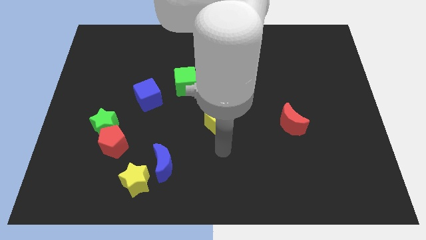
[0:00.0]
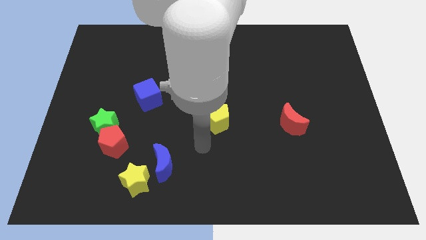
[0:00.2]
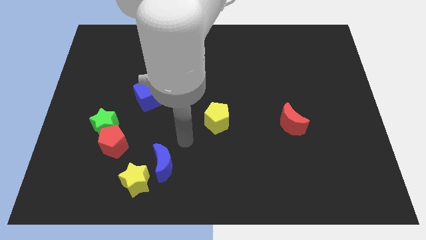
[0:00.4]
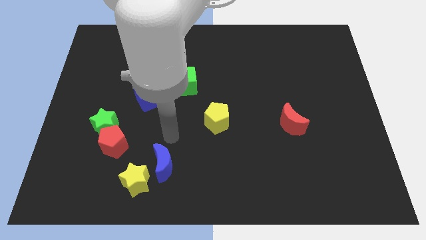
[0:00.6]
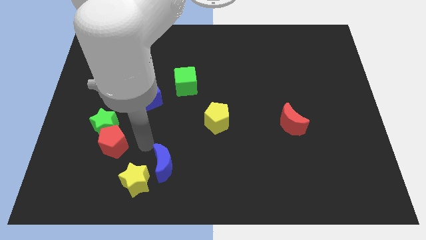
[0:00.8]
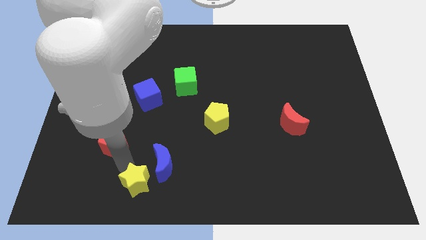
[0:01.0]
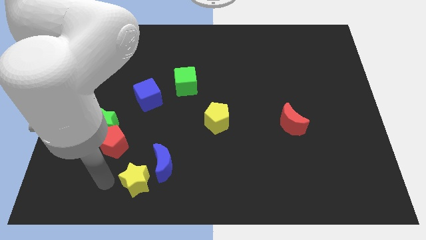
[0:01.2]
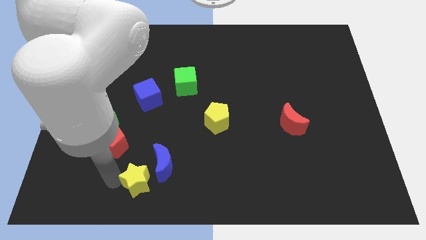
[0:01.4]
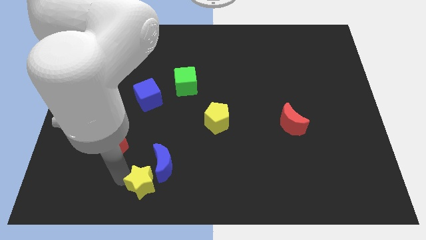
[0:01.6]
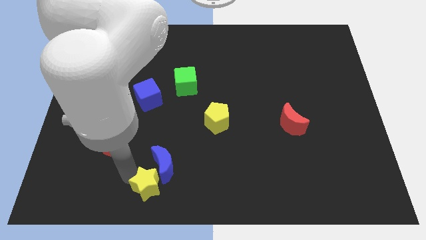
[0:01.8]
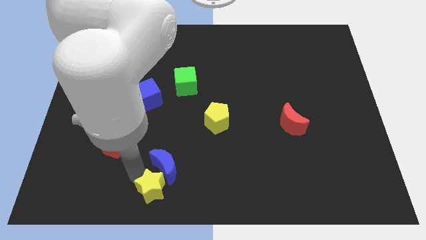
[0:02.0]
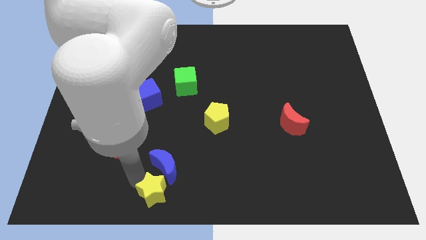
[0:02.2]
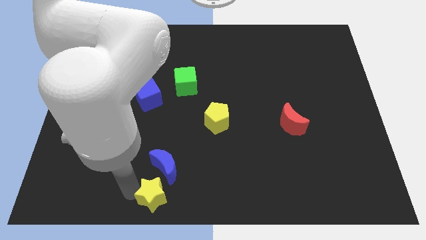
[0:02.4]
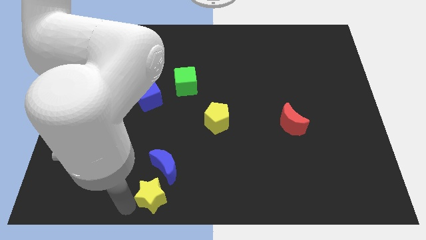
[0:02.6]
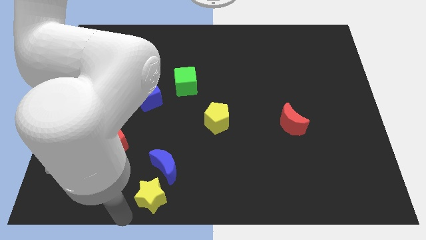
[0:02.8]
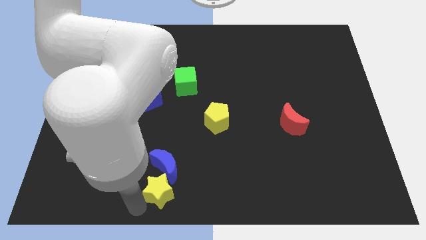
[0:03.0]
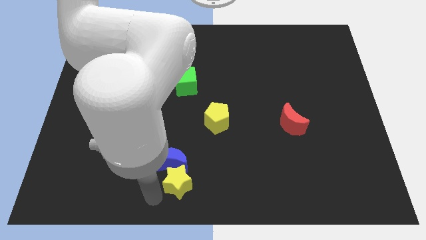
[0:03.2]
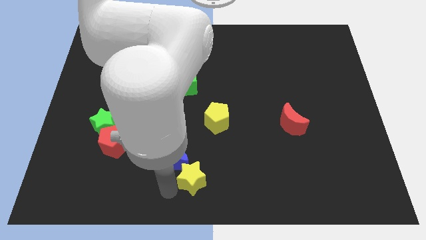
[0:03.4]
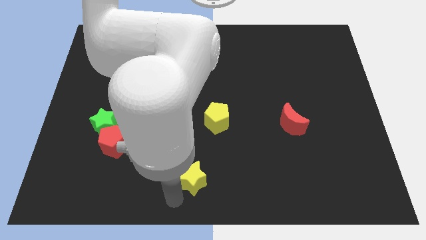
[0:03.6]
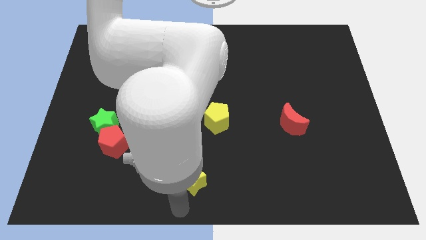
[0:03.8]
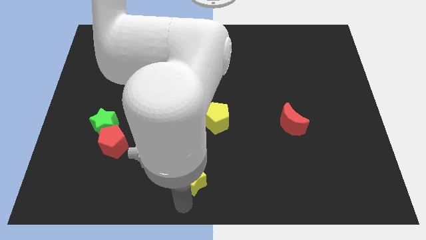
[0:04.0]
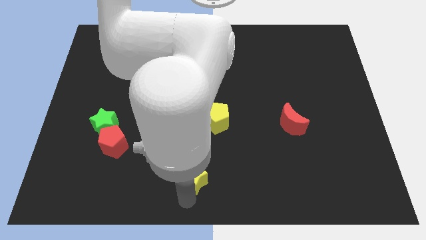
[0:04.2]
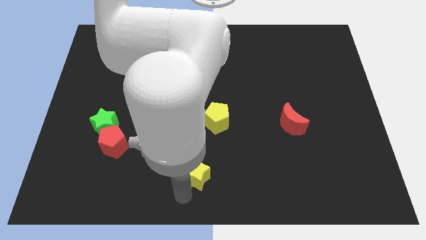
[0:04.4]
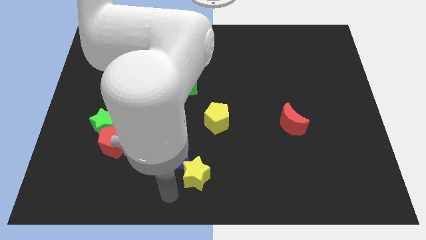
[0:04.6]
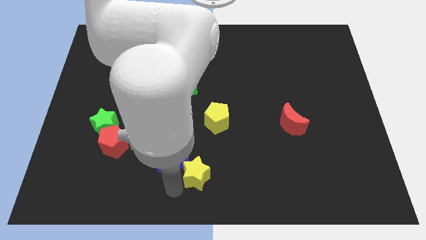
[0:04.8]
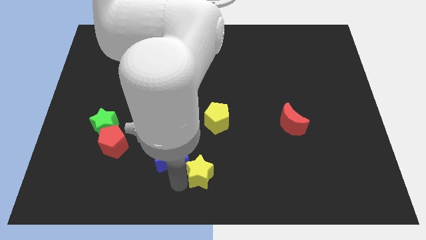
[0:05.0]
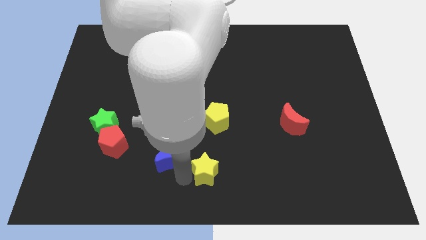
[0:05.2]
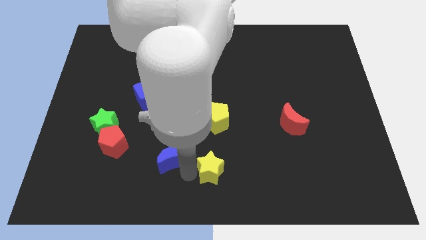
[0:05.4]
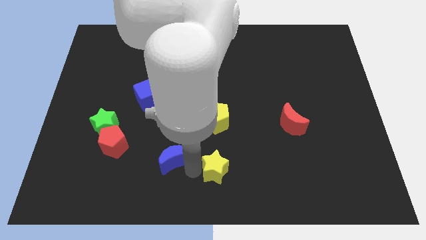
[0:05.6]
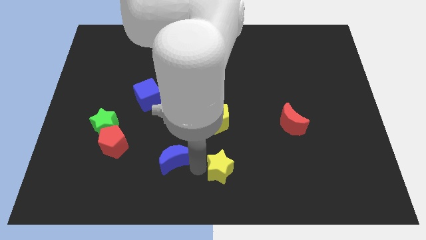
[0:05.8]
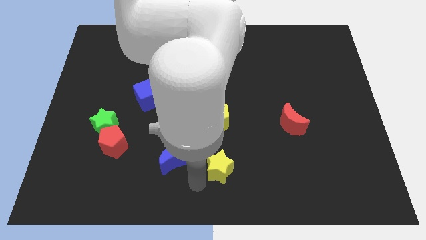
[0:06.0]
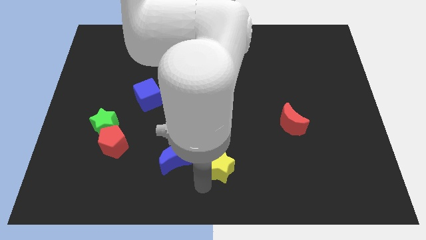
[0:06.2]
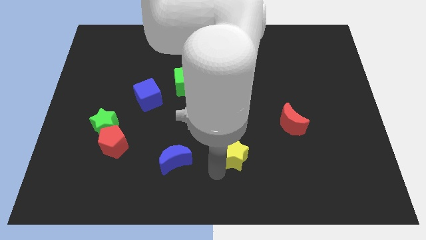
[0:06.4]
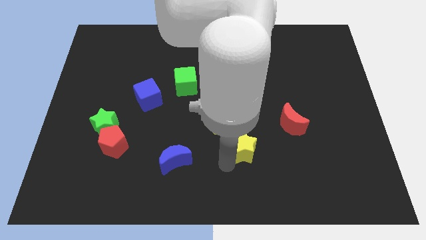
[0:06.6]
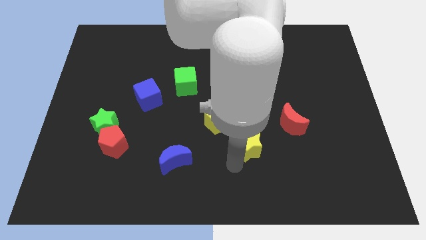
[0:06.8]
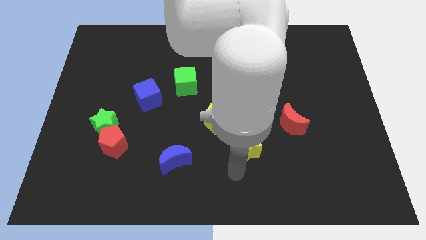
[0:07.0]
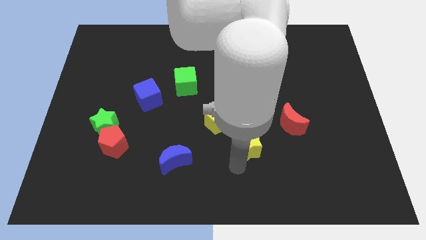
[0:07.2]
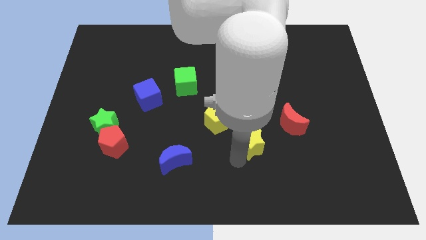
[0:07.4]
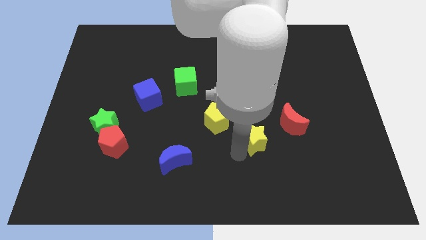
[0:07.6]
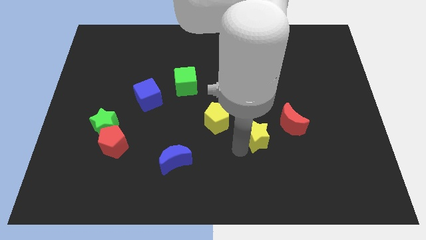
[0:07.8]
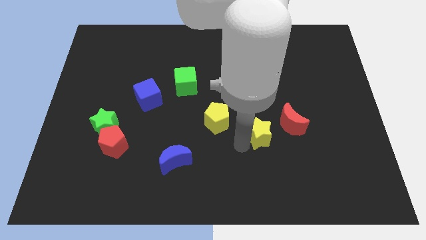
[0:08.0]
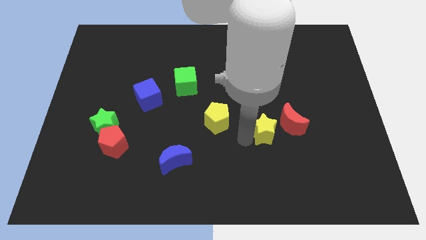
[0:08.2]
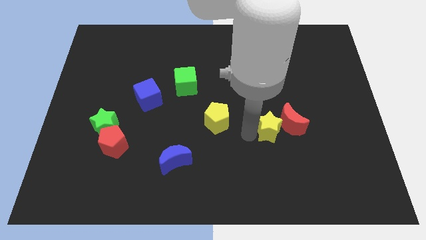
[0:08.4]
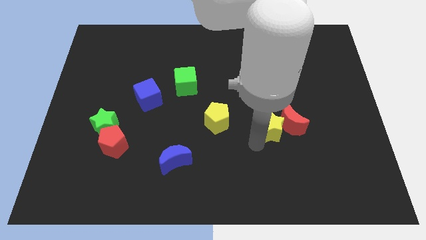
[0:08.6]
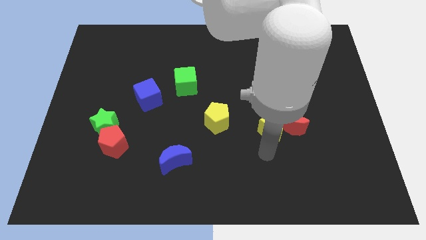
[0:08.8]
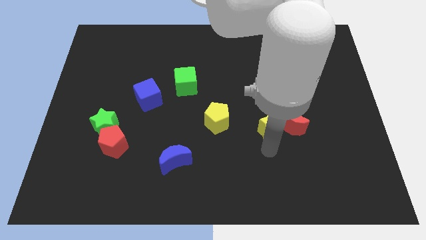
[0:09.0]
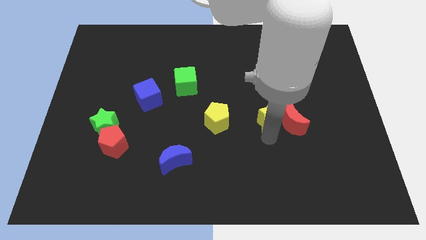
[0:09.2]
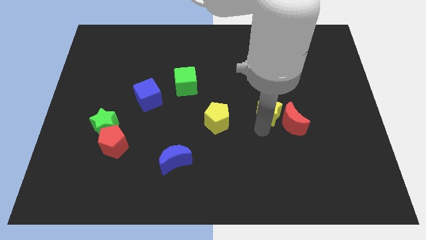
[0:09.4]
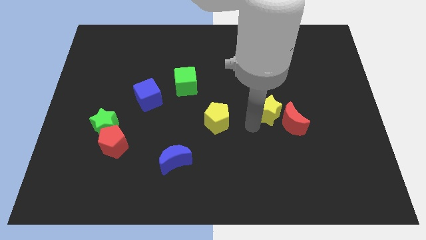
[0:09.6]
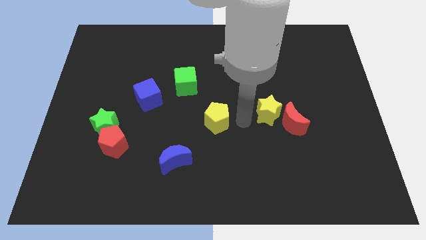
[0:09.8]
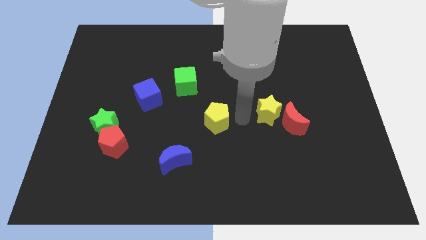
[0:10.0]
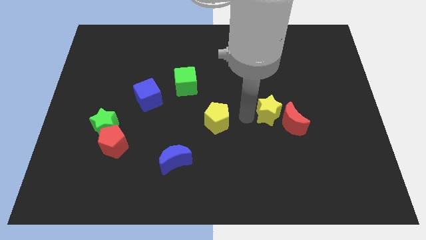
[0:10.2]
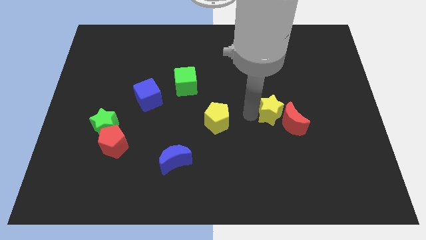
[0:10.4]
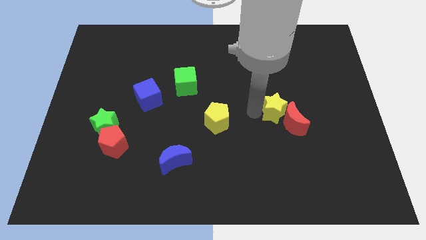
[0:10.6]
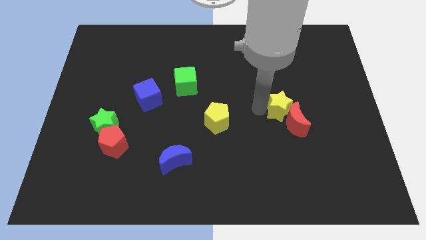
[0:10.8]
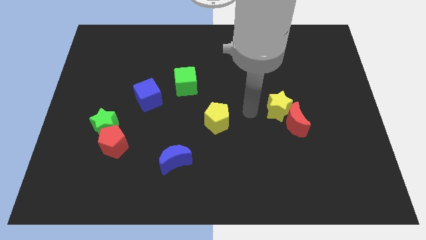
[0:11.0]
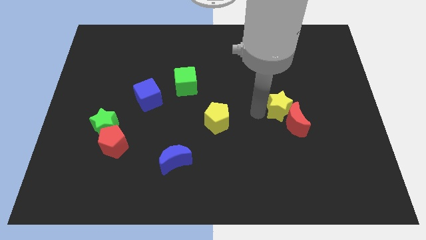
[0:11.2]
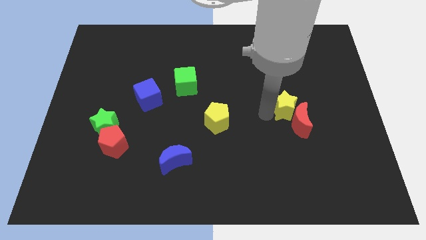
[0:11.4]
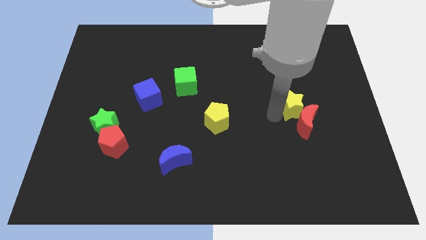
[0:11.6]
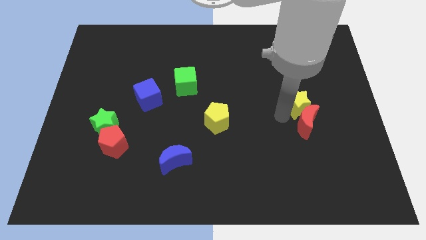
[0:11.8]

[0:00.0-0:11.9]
put the yellow star to the top right side of the red moon

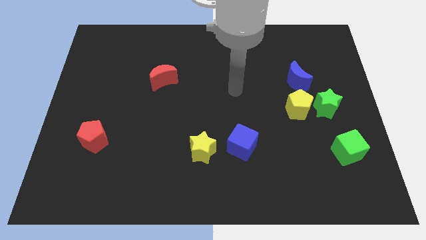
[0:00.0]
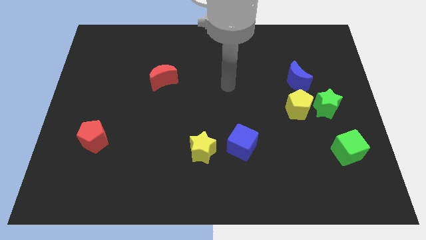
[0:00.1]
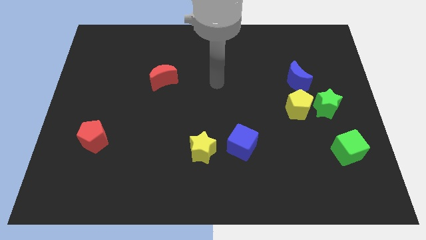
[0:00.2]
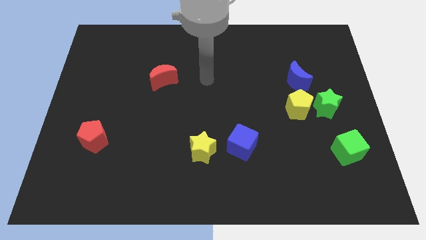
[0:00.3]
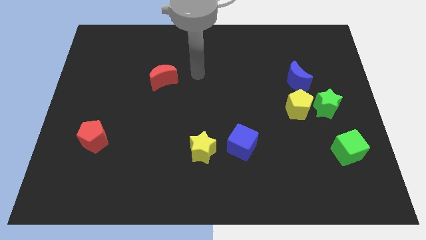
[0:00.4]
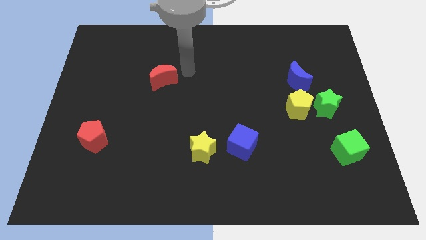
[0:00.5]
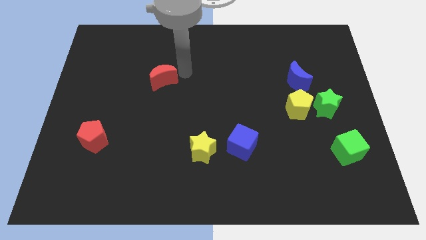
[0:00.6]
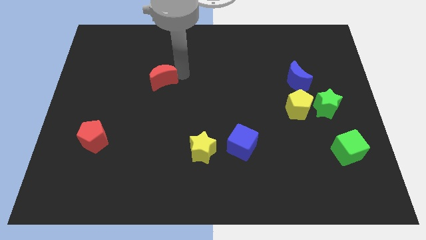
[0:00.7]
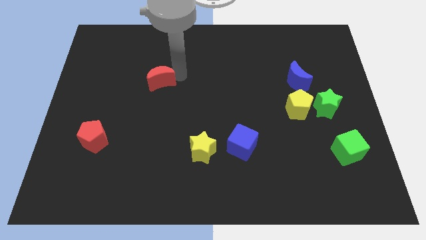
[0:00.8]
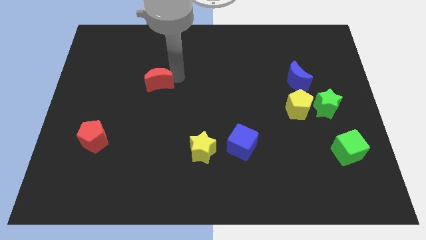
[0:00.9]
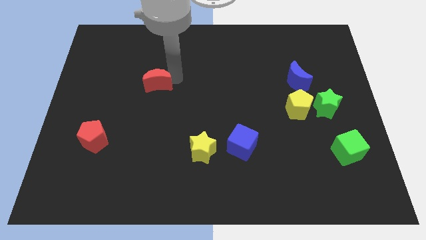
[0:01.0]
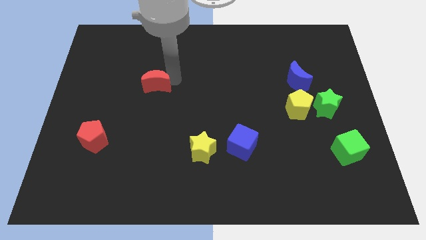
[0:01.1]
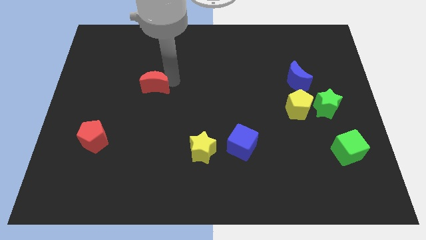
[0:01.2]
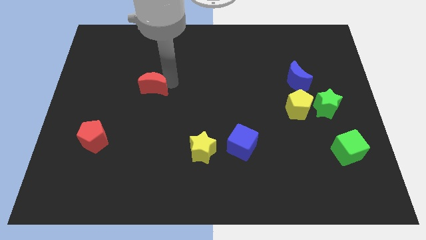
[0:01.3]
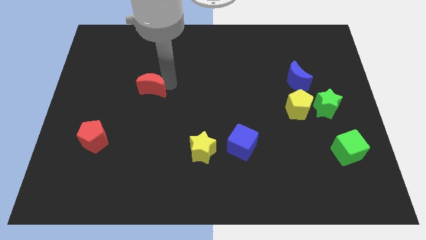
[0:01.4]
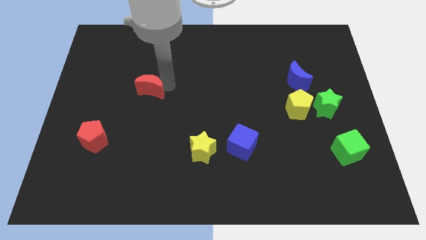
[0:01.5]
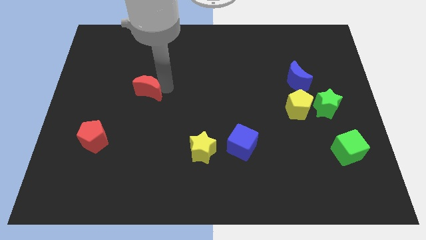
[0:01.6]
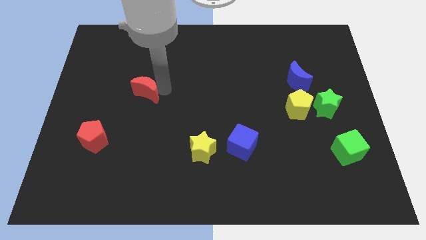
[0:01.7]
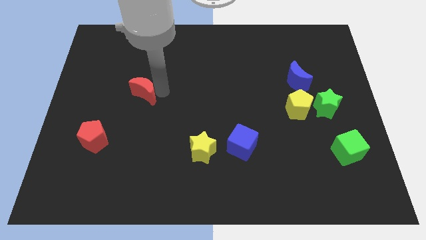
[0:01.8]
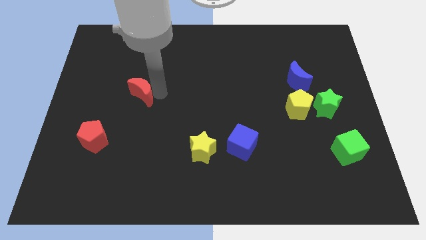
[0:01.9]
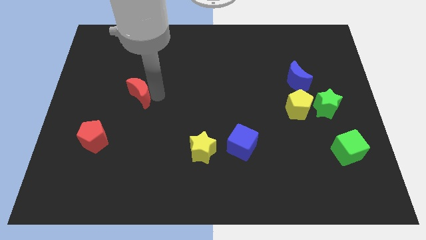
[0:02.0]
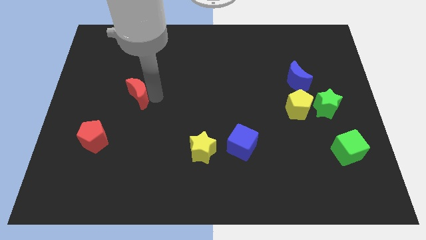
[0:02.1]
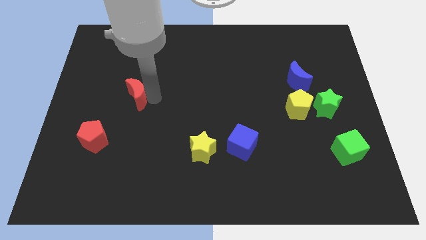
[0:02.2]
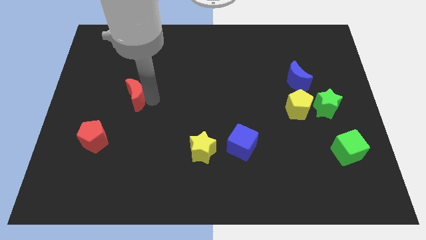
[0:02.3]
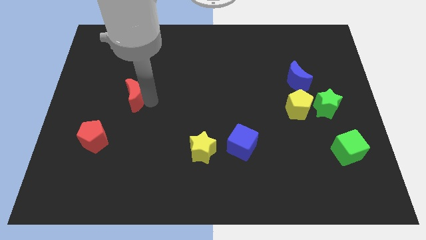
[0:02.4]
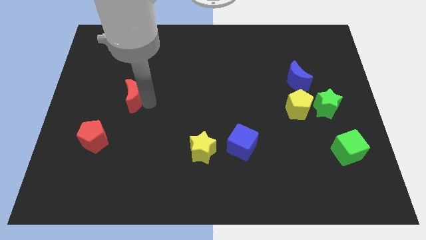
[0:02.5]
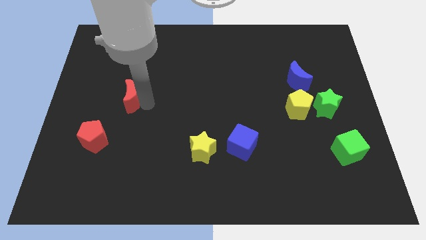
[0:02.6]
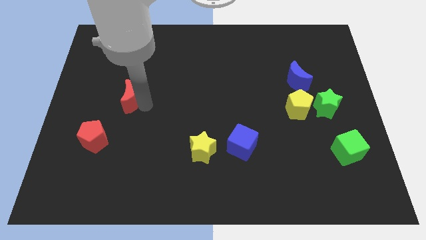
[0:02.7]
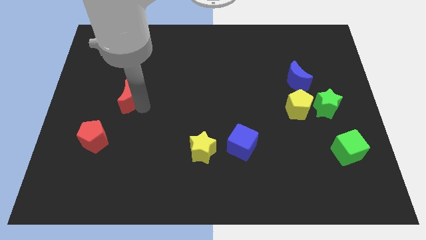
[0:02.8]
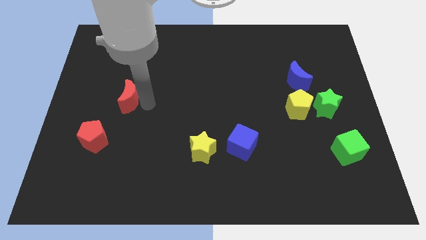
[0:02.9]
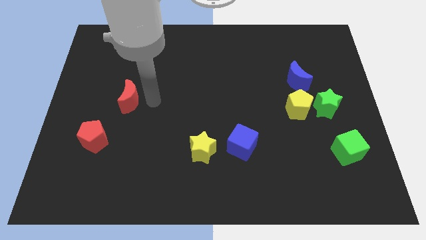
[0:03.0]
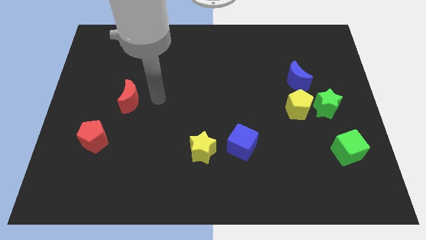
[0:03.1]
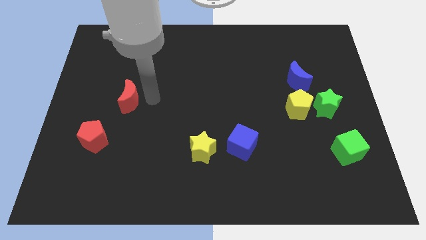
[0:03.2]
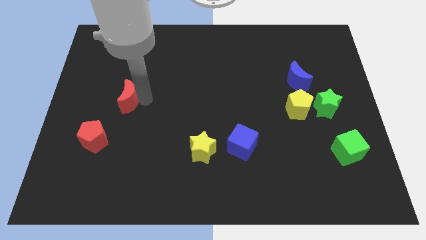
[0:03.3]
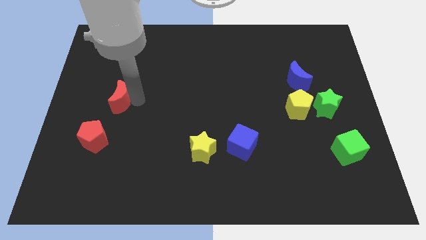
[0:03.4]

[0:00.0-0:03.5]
slide the red moon above the red pentagon
